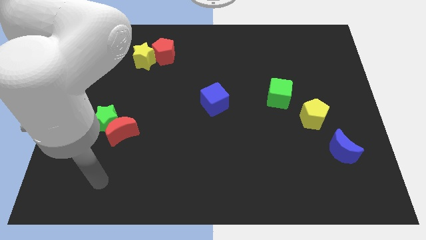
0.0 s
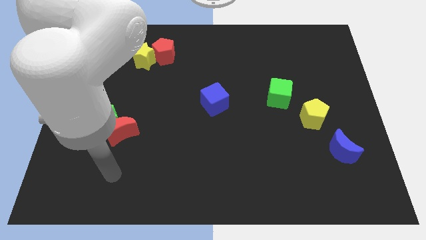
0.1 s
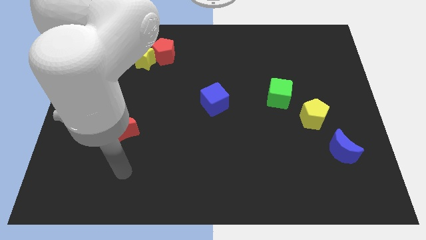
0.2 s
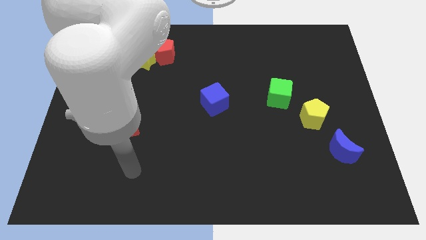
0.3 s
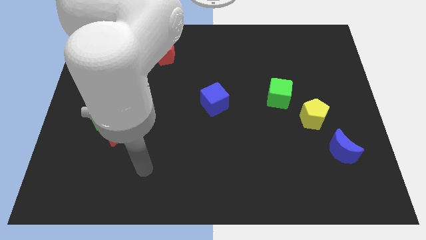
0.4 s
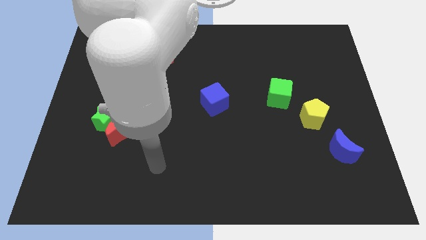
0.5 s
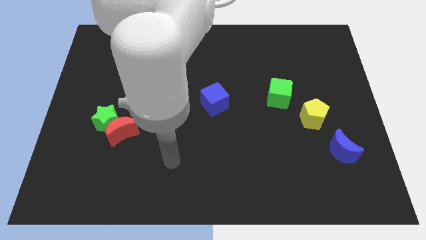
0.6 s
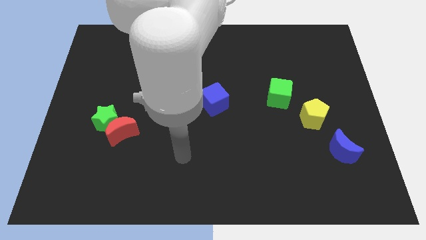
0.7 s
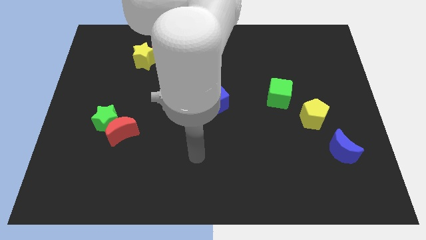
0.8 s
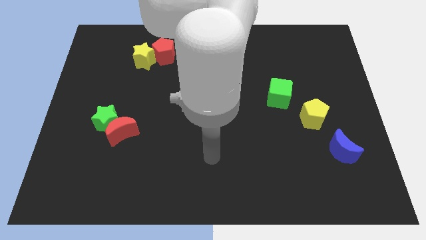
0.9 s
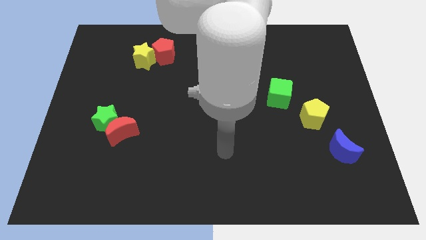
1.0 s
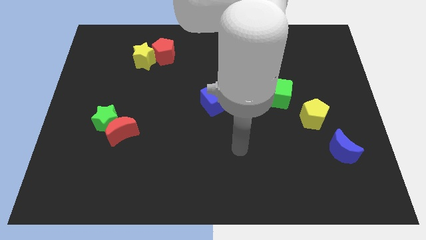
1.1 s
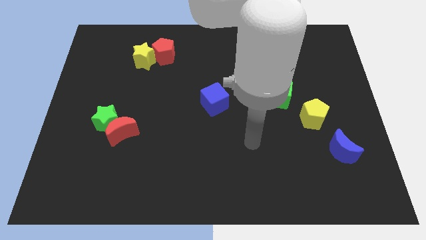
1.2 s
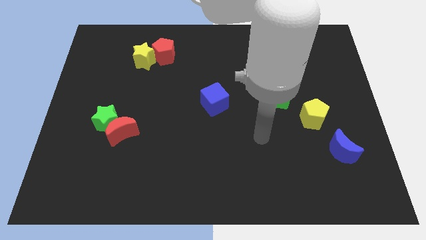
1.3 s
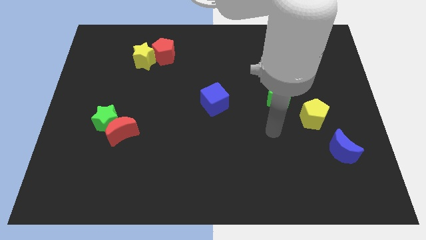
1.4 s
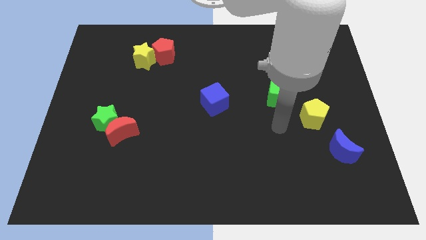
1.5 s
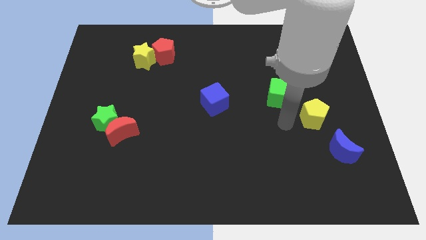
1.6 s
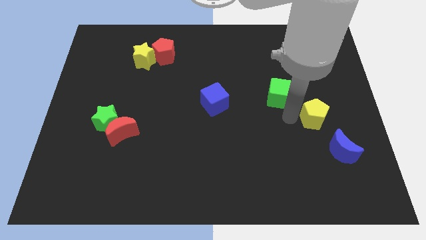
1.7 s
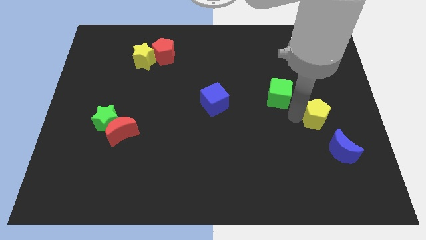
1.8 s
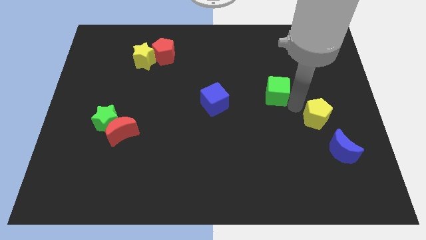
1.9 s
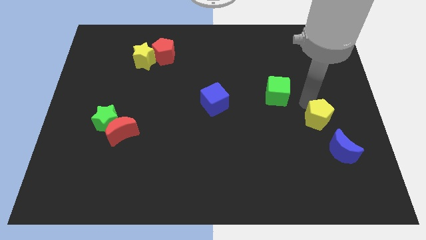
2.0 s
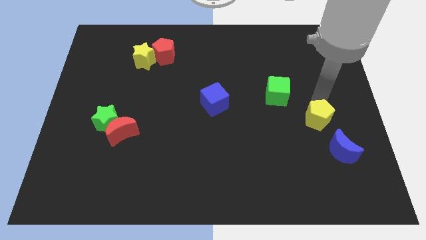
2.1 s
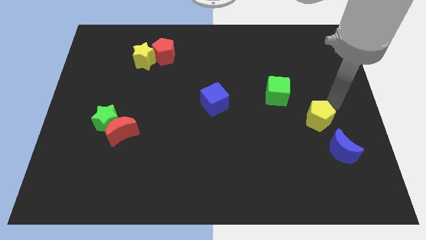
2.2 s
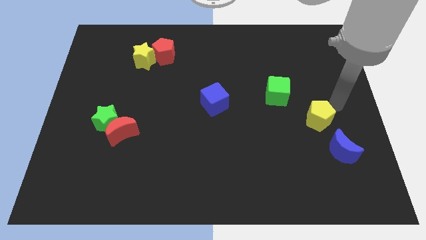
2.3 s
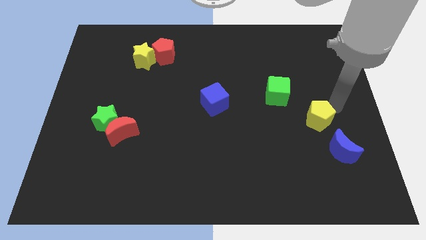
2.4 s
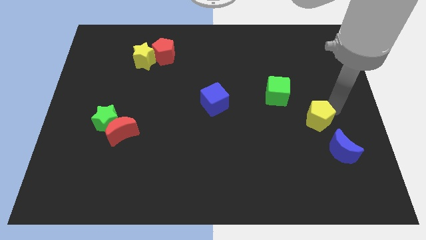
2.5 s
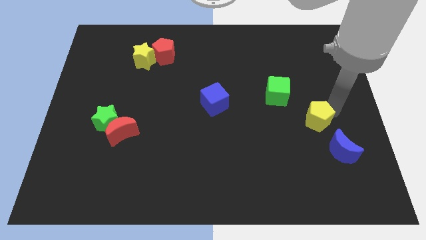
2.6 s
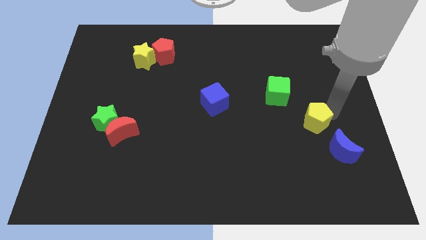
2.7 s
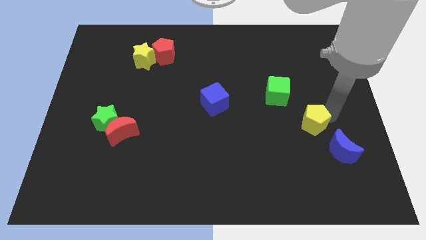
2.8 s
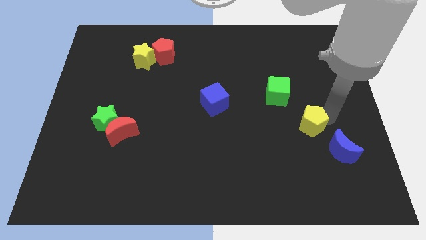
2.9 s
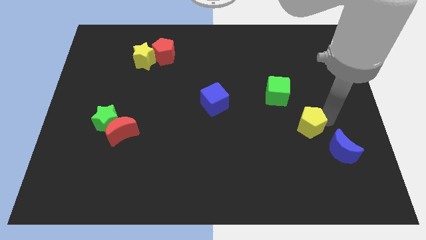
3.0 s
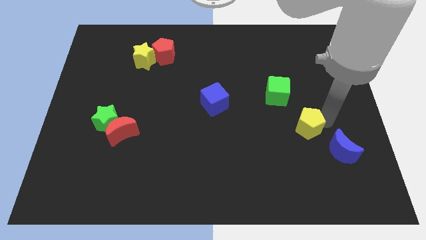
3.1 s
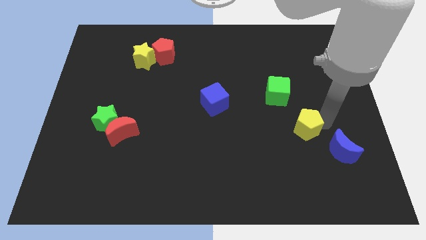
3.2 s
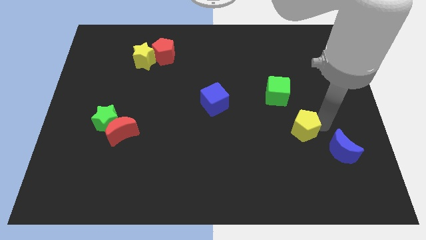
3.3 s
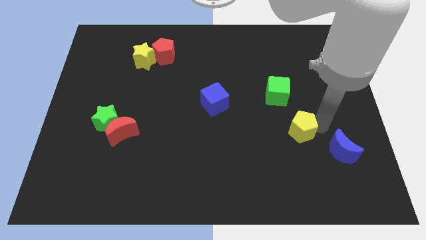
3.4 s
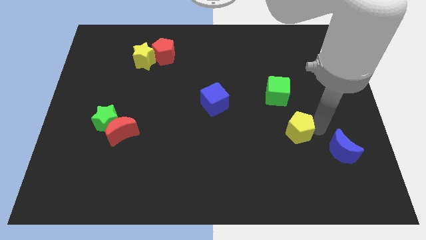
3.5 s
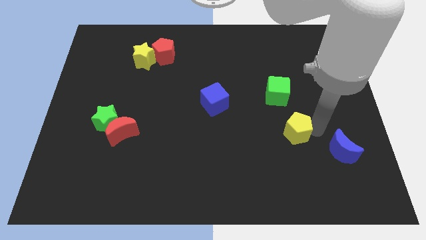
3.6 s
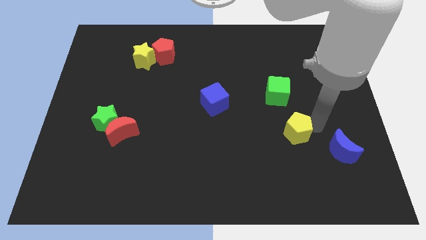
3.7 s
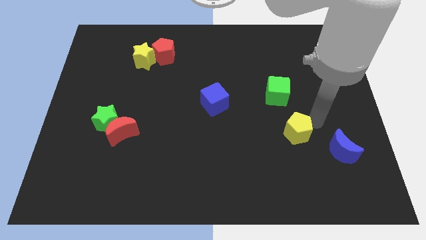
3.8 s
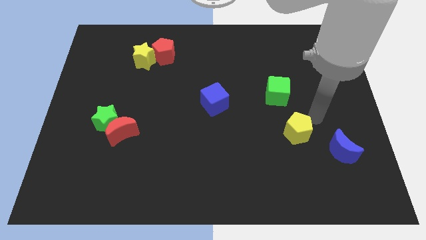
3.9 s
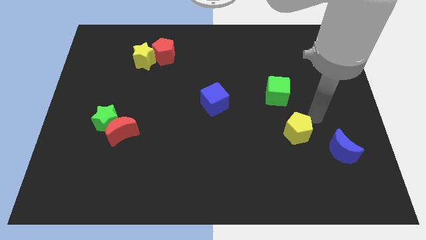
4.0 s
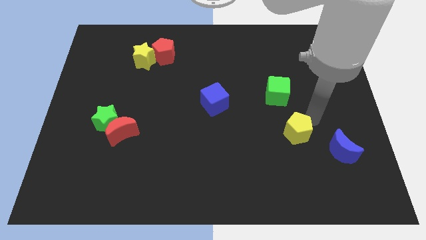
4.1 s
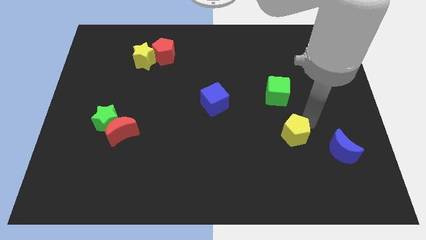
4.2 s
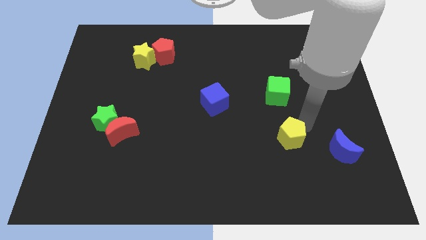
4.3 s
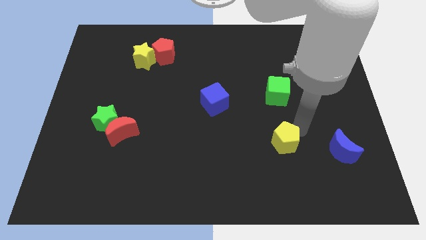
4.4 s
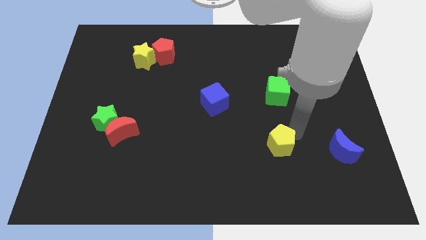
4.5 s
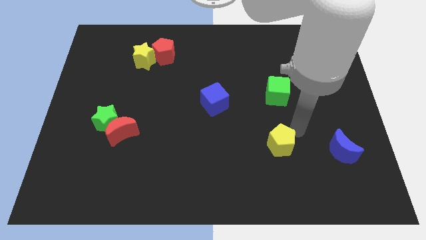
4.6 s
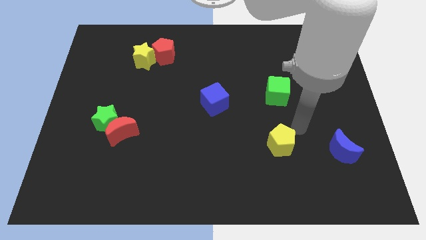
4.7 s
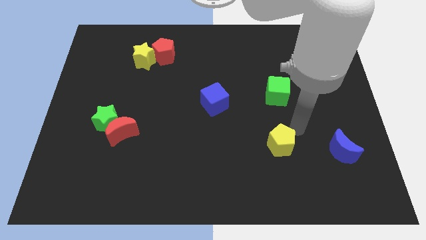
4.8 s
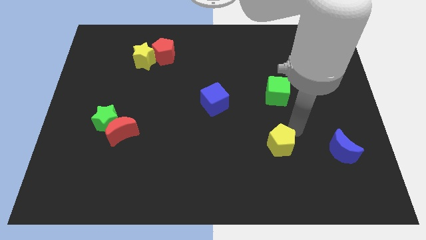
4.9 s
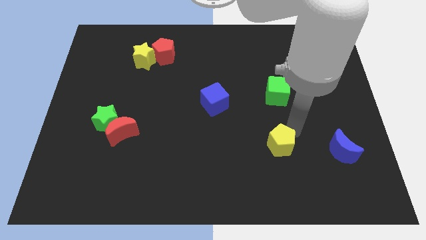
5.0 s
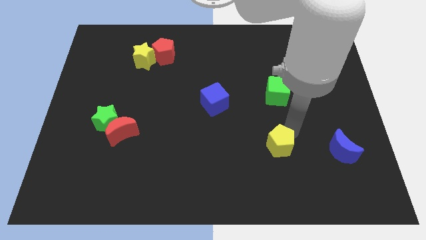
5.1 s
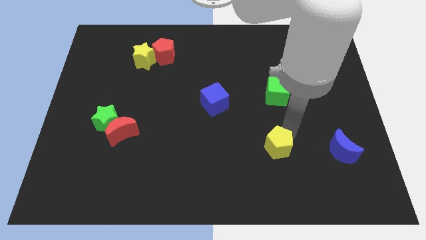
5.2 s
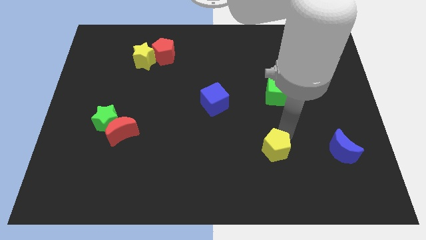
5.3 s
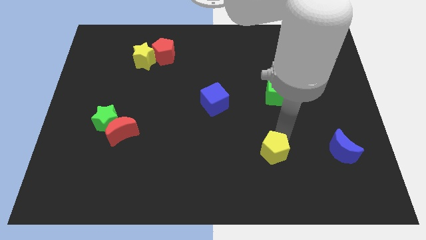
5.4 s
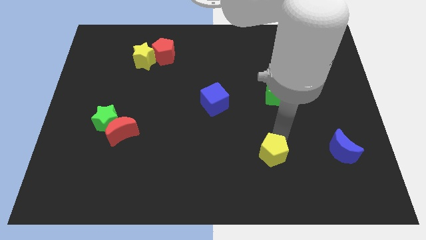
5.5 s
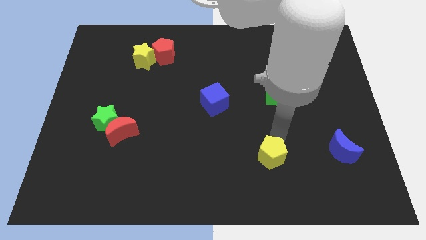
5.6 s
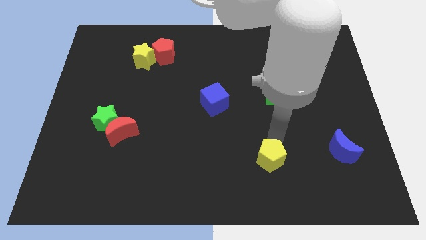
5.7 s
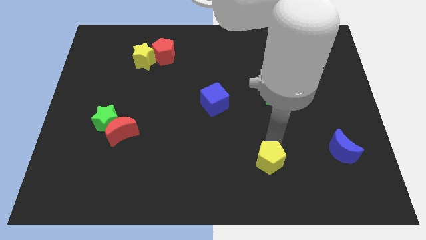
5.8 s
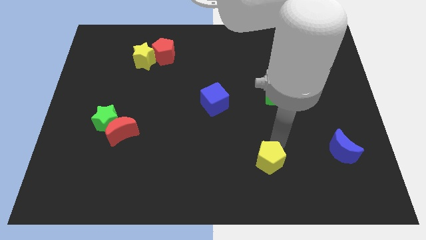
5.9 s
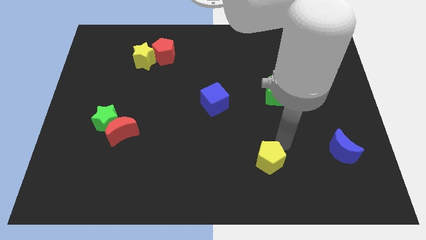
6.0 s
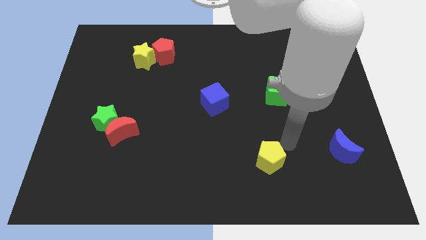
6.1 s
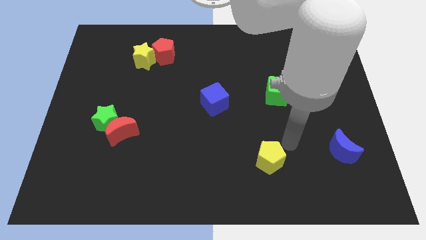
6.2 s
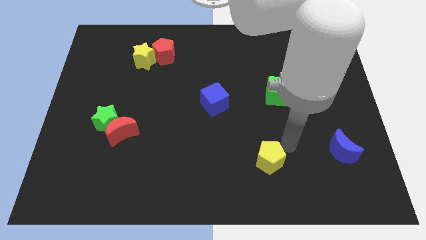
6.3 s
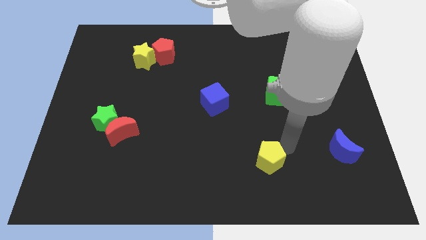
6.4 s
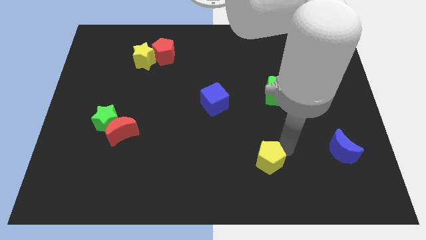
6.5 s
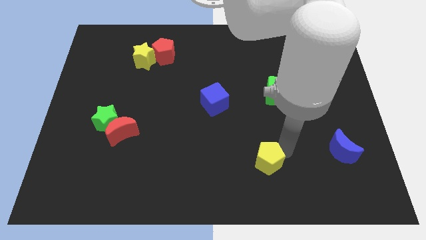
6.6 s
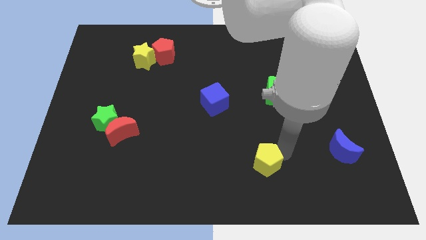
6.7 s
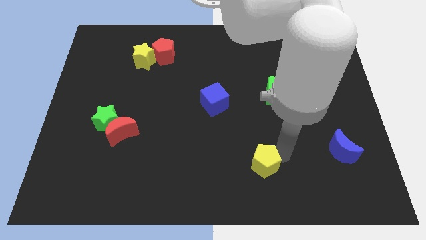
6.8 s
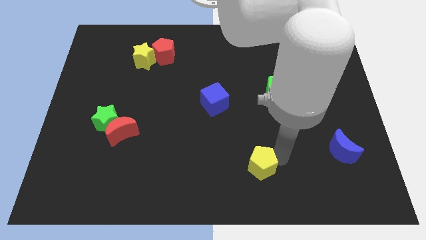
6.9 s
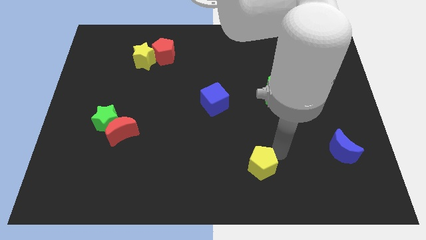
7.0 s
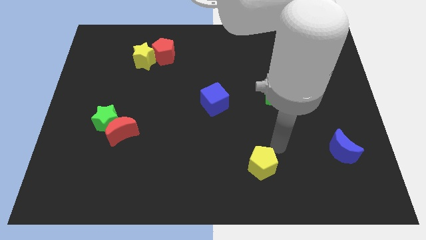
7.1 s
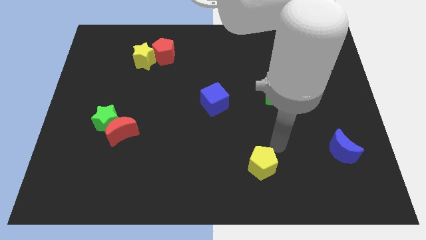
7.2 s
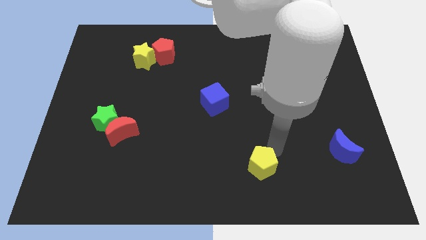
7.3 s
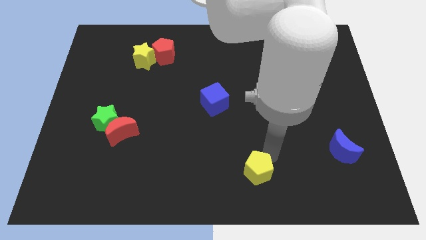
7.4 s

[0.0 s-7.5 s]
push the yellow pentagon to the bottom

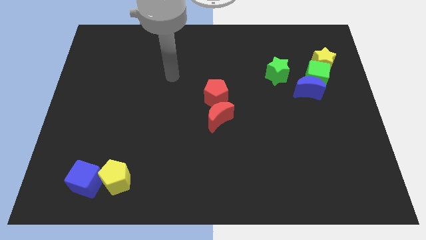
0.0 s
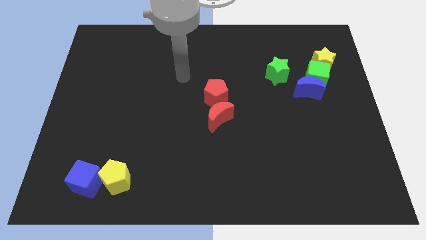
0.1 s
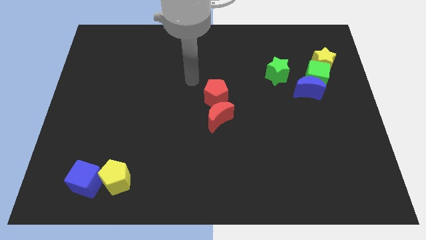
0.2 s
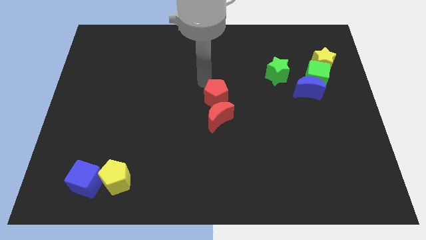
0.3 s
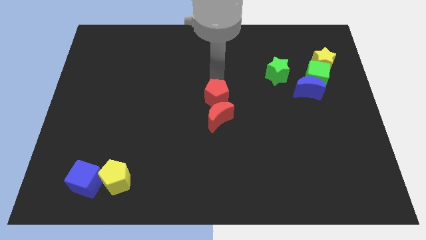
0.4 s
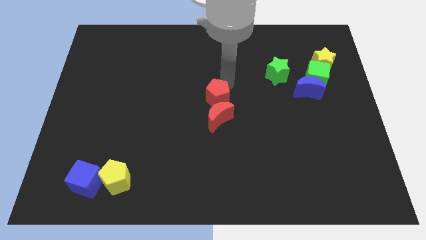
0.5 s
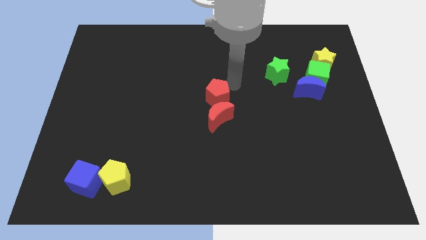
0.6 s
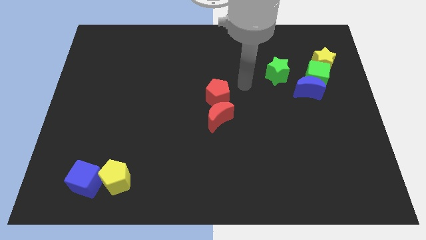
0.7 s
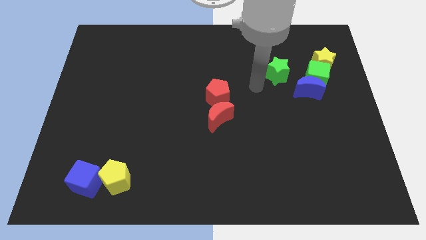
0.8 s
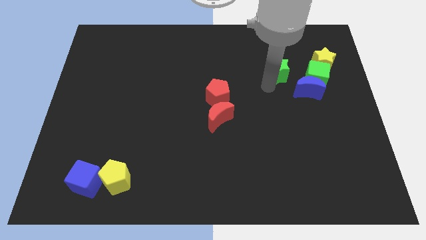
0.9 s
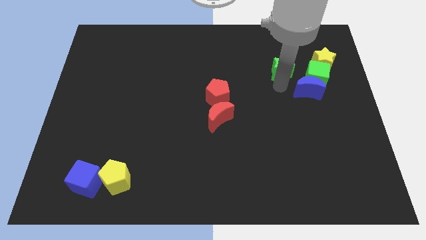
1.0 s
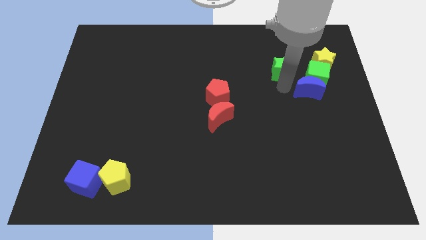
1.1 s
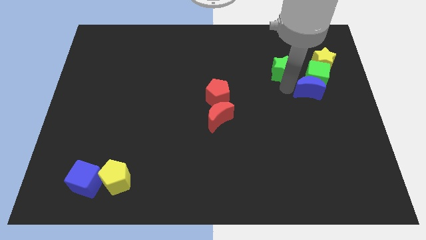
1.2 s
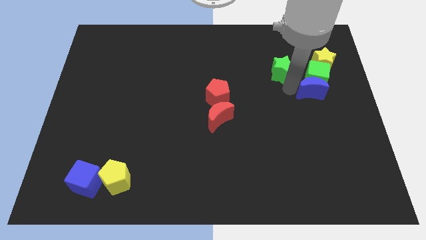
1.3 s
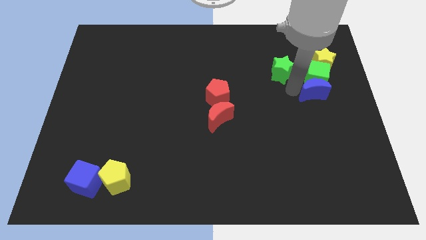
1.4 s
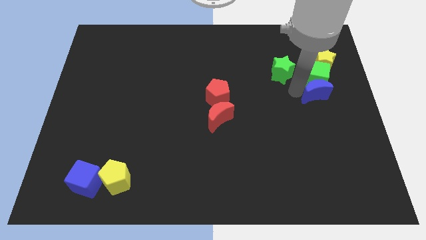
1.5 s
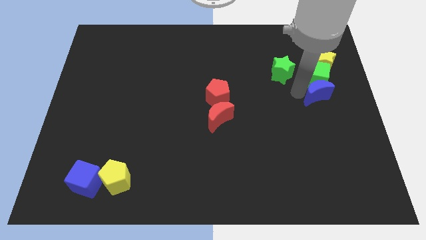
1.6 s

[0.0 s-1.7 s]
put the blue moon to the right side
